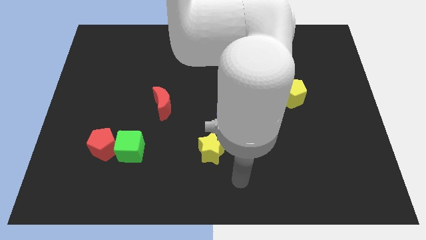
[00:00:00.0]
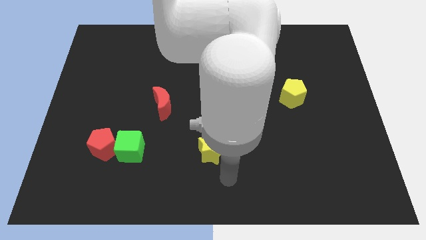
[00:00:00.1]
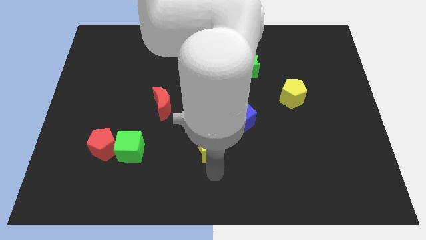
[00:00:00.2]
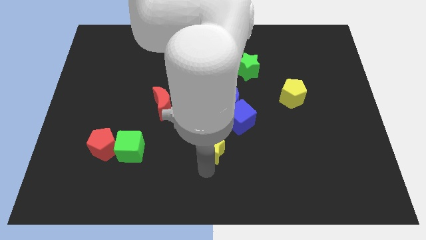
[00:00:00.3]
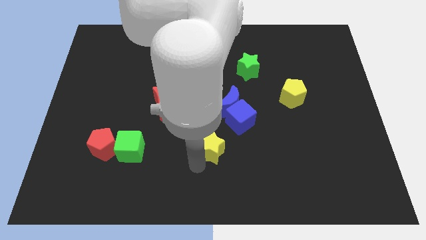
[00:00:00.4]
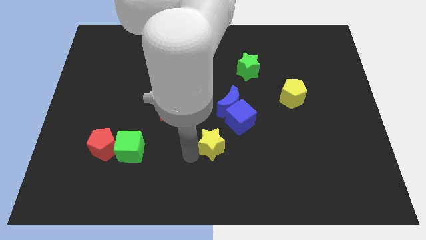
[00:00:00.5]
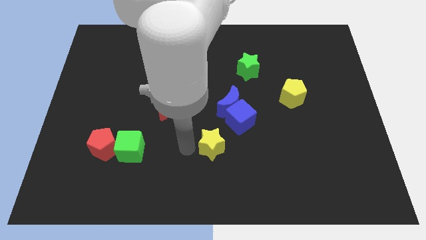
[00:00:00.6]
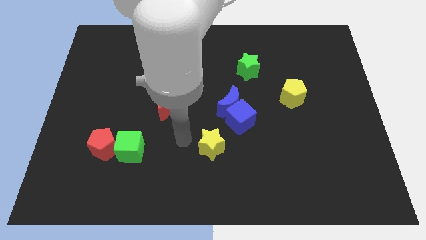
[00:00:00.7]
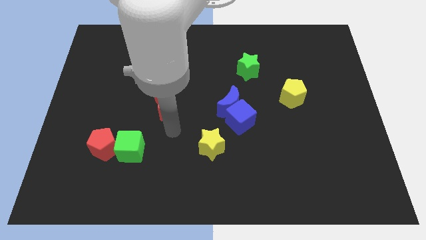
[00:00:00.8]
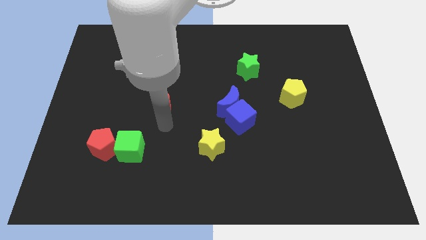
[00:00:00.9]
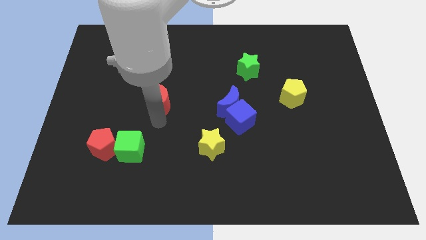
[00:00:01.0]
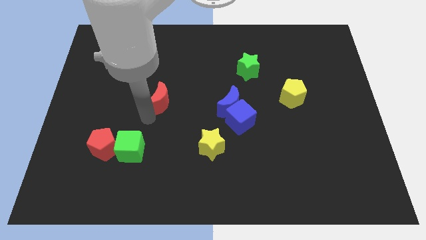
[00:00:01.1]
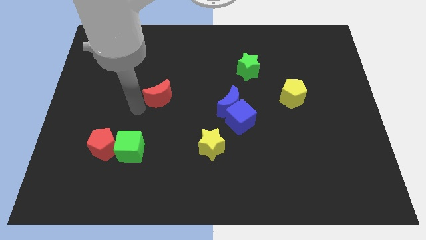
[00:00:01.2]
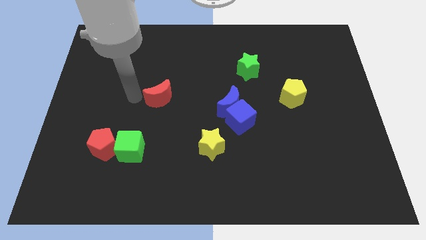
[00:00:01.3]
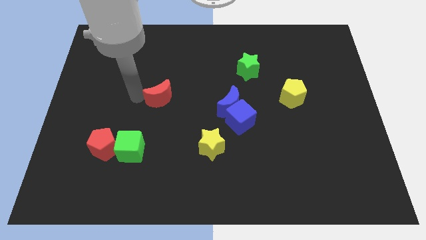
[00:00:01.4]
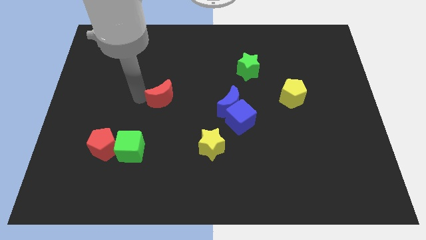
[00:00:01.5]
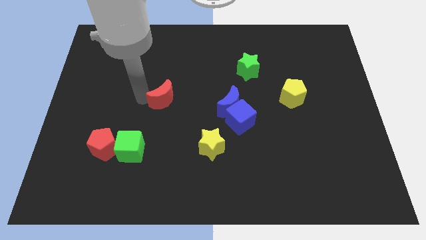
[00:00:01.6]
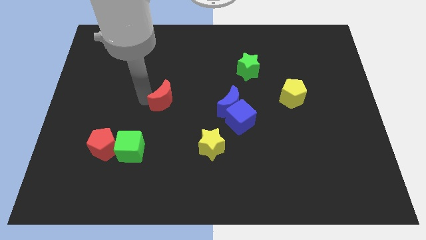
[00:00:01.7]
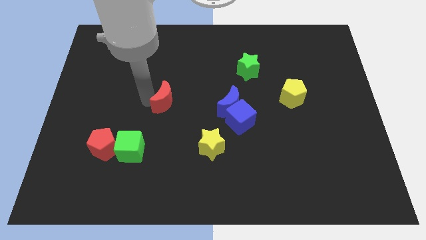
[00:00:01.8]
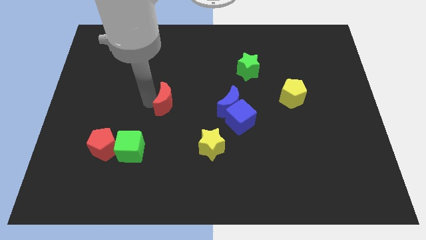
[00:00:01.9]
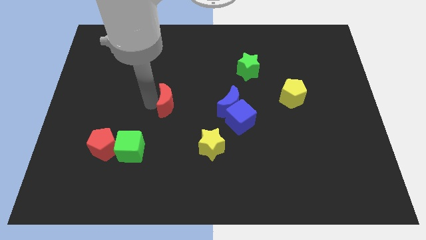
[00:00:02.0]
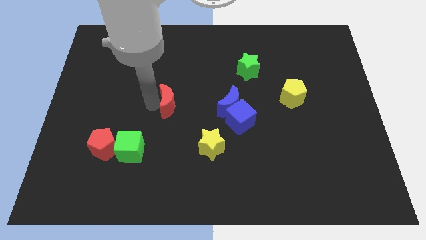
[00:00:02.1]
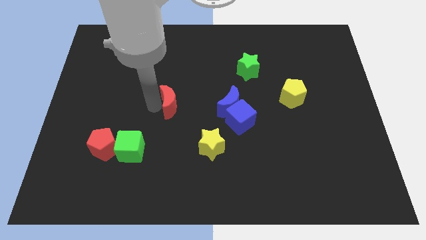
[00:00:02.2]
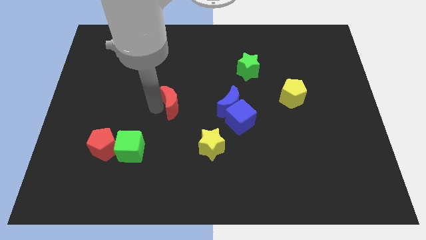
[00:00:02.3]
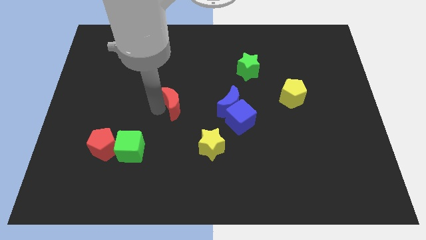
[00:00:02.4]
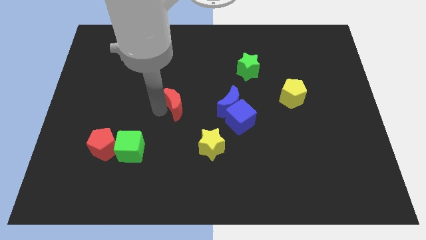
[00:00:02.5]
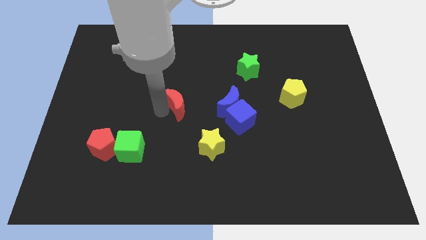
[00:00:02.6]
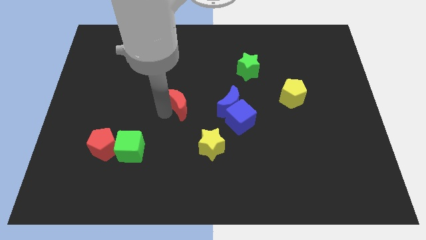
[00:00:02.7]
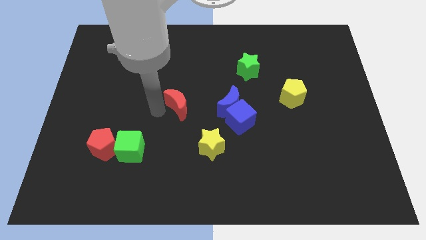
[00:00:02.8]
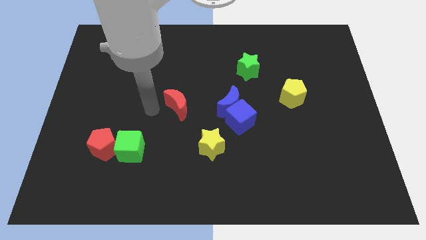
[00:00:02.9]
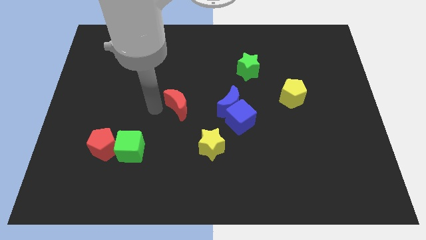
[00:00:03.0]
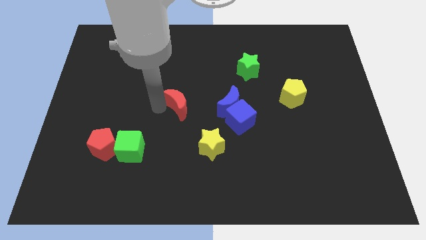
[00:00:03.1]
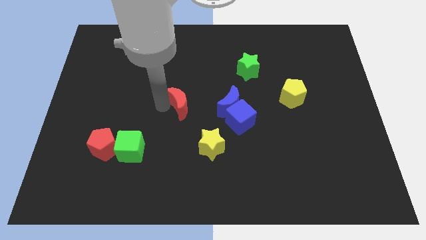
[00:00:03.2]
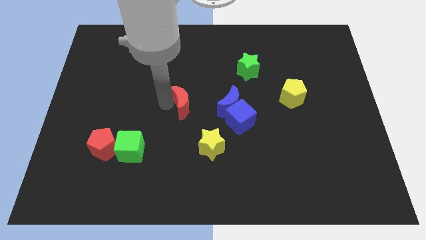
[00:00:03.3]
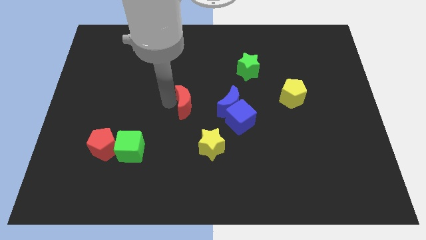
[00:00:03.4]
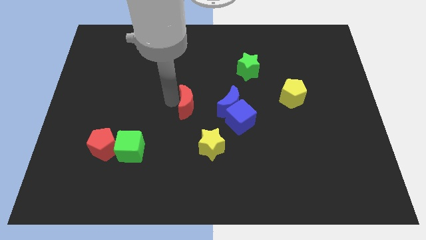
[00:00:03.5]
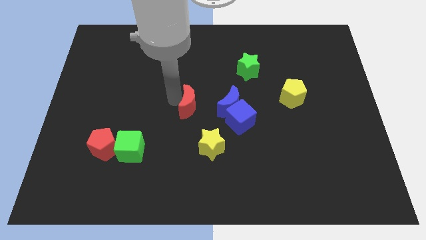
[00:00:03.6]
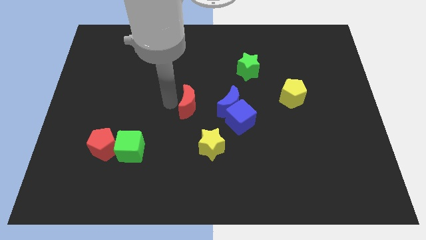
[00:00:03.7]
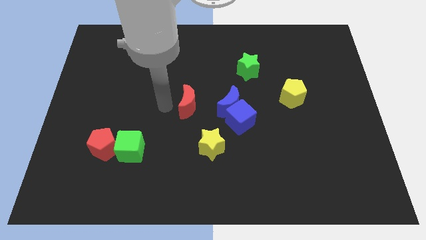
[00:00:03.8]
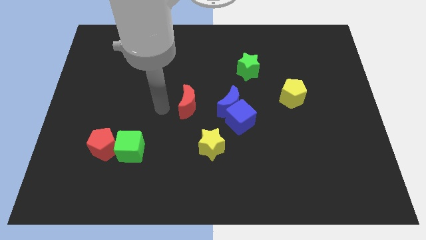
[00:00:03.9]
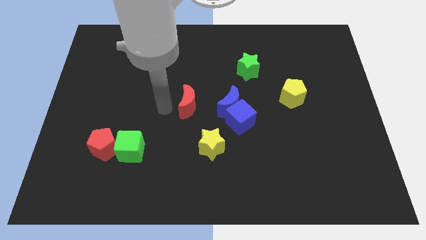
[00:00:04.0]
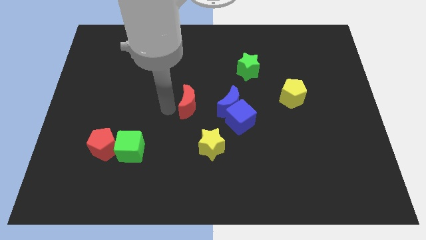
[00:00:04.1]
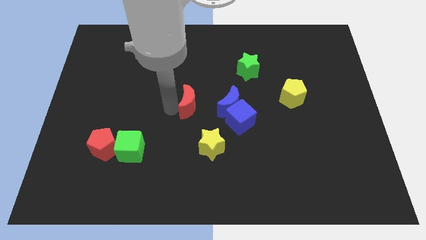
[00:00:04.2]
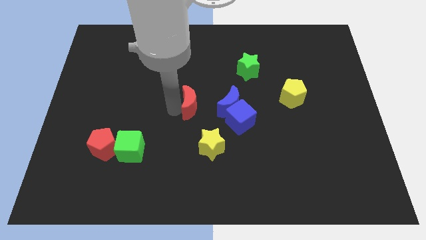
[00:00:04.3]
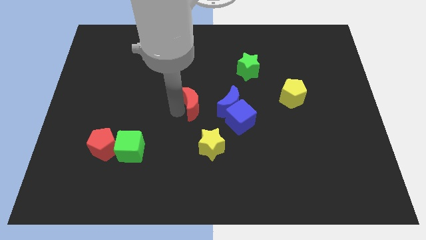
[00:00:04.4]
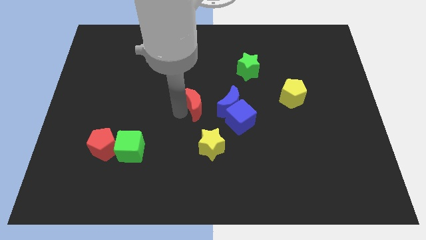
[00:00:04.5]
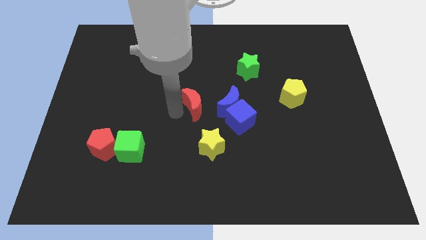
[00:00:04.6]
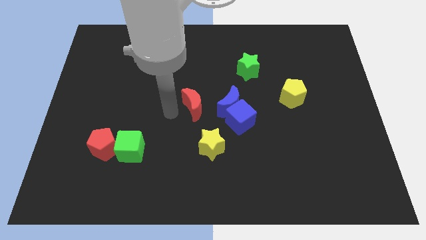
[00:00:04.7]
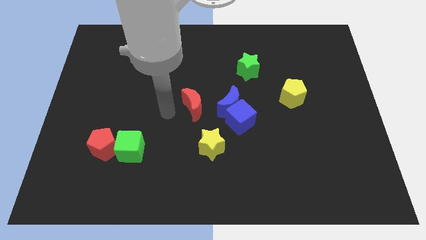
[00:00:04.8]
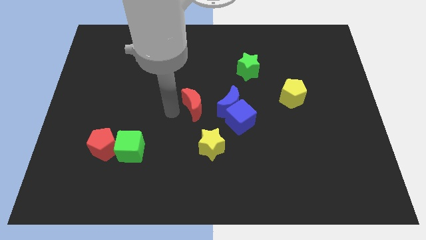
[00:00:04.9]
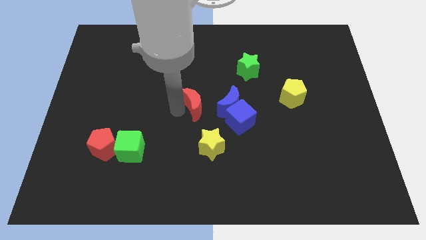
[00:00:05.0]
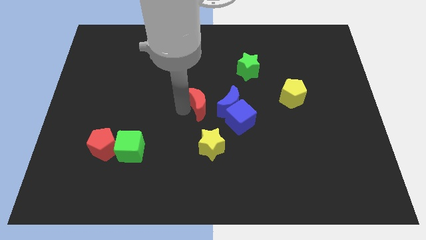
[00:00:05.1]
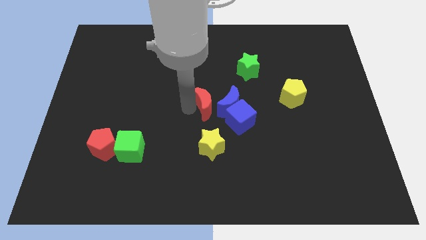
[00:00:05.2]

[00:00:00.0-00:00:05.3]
push the red moon next to the blue moon

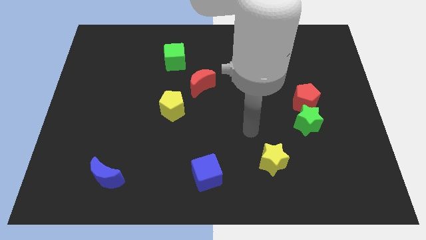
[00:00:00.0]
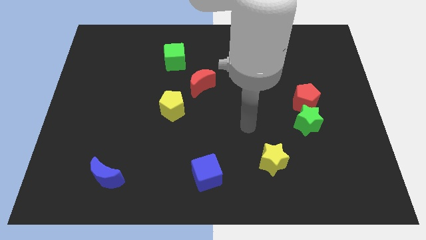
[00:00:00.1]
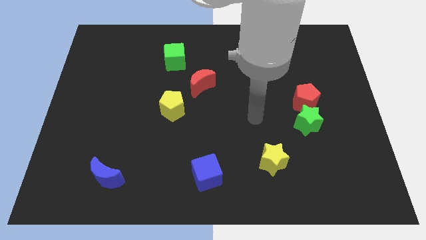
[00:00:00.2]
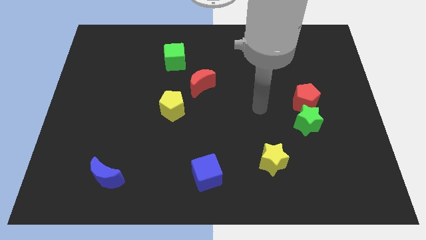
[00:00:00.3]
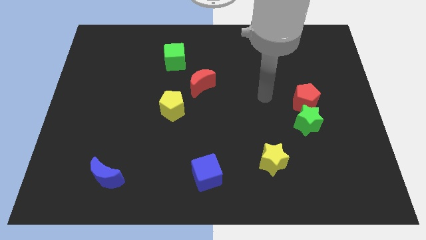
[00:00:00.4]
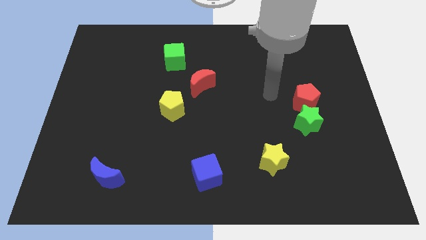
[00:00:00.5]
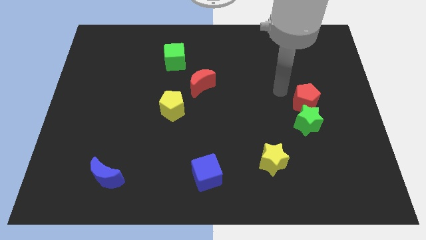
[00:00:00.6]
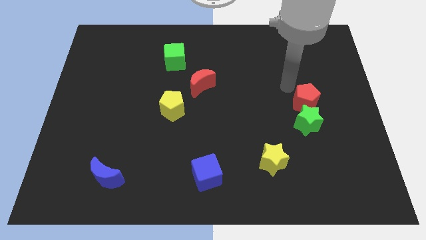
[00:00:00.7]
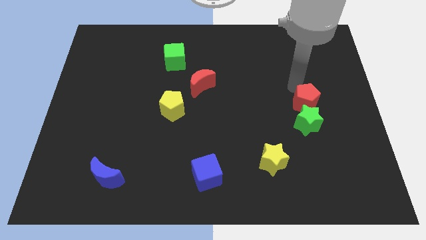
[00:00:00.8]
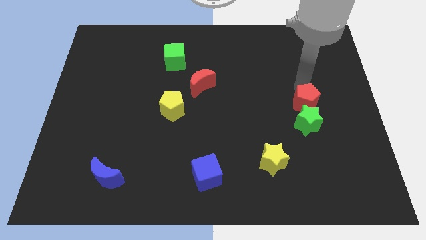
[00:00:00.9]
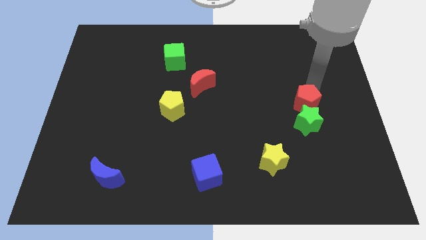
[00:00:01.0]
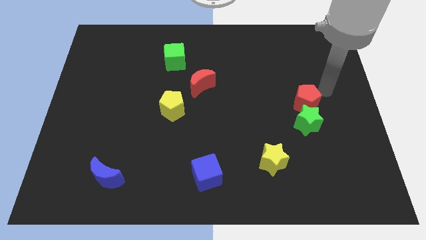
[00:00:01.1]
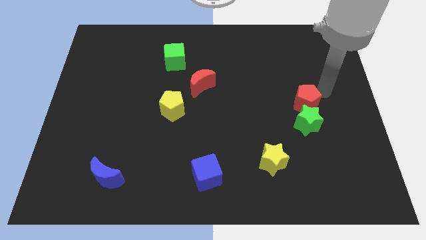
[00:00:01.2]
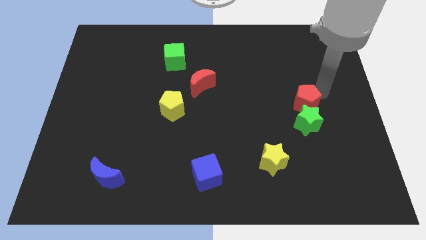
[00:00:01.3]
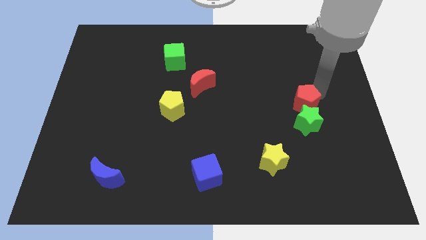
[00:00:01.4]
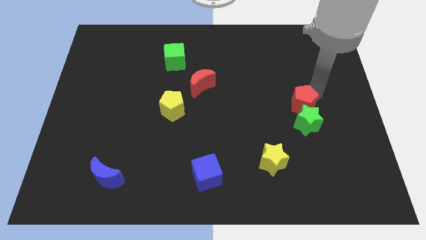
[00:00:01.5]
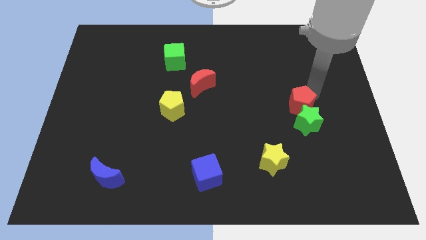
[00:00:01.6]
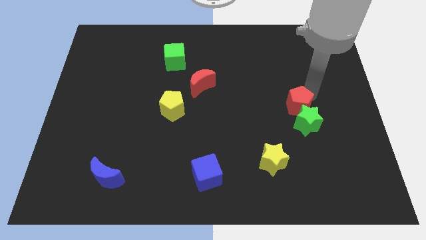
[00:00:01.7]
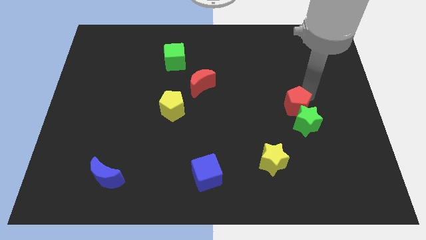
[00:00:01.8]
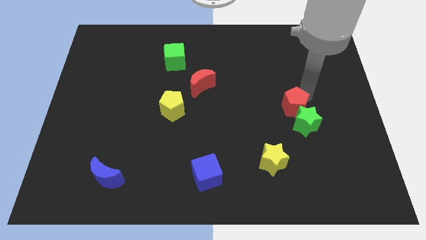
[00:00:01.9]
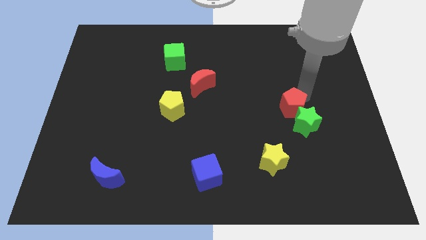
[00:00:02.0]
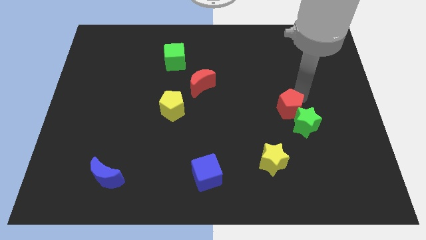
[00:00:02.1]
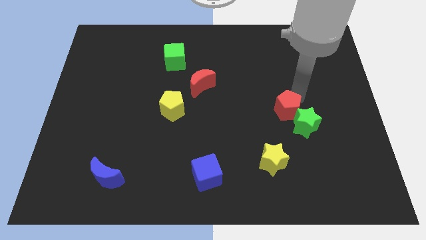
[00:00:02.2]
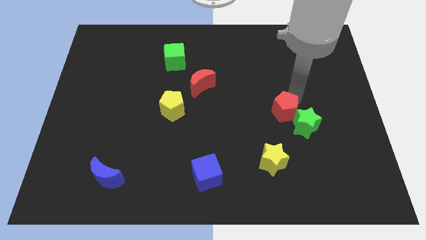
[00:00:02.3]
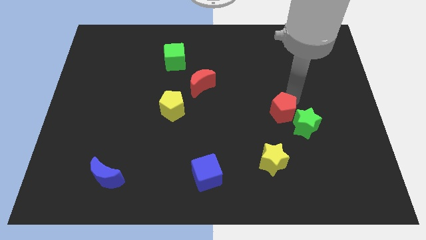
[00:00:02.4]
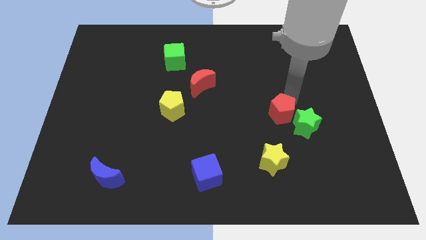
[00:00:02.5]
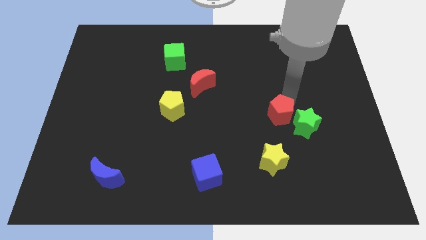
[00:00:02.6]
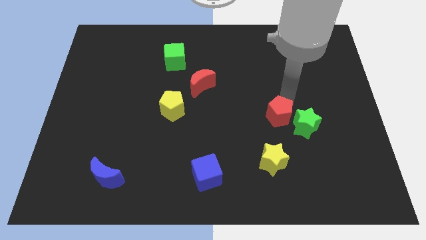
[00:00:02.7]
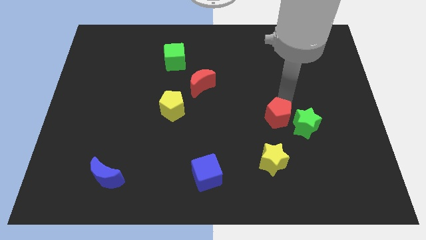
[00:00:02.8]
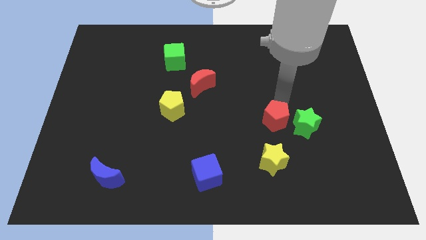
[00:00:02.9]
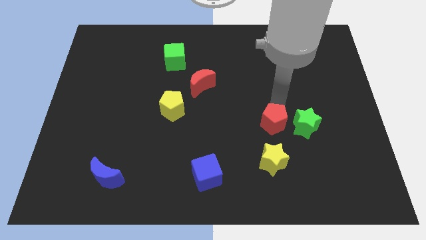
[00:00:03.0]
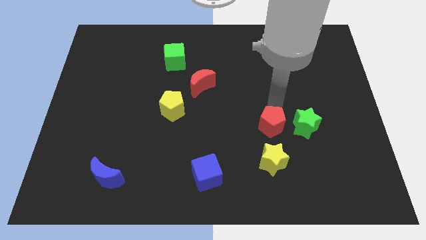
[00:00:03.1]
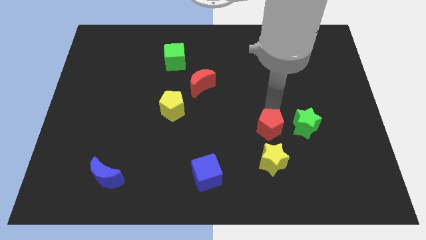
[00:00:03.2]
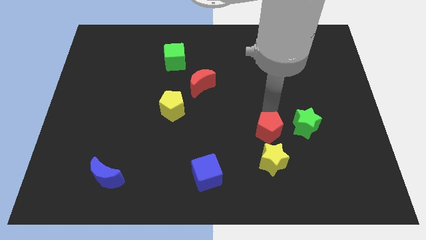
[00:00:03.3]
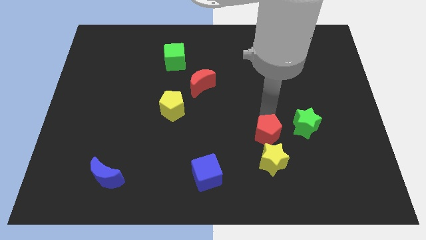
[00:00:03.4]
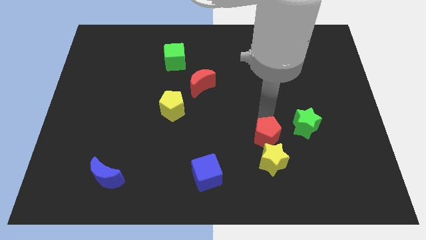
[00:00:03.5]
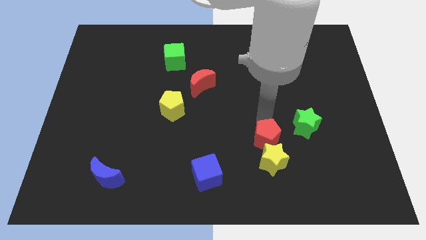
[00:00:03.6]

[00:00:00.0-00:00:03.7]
put the red pentagon to the yellow star
